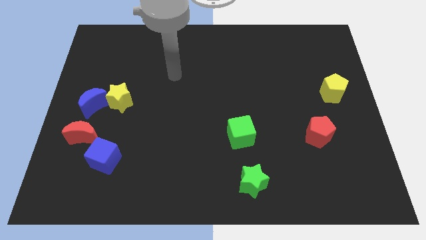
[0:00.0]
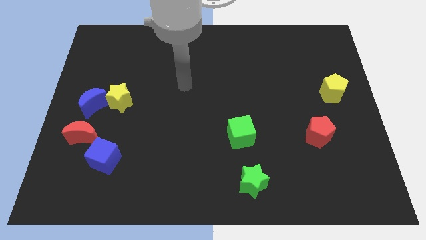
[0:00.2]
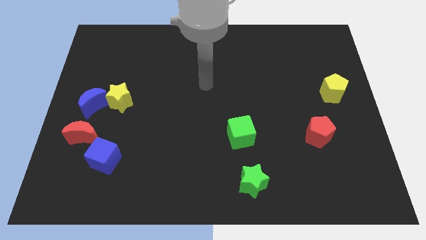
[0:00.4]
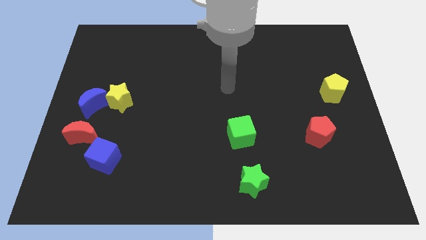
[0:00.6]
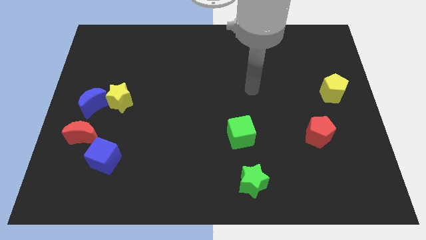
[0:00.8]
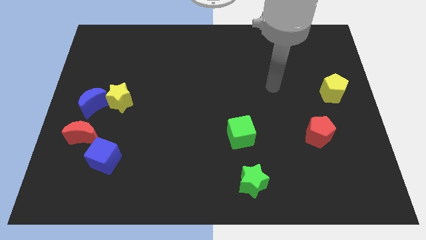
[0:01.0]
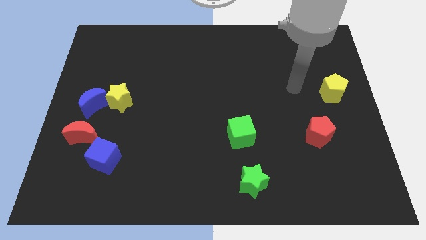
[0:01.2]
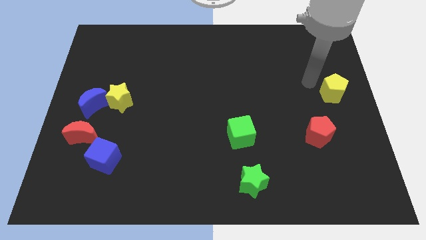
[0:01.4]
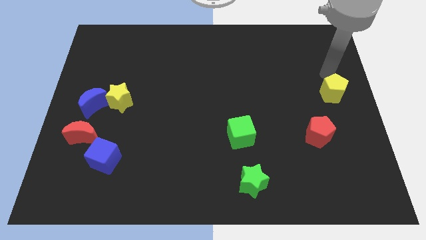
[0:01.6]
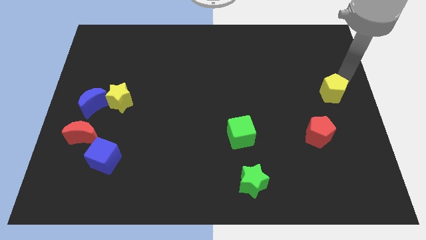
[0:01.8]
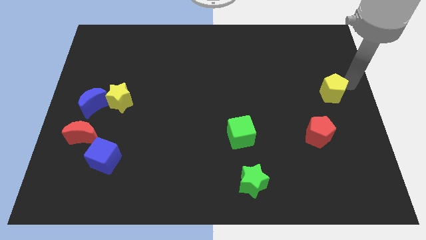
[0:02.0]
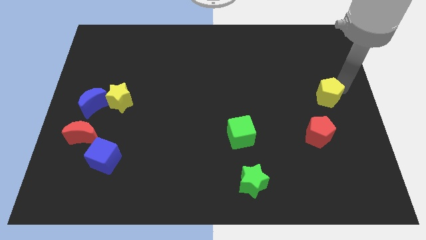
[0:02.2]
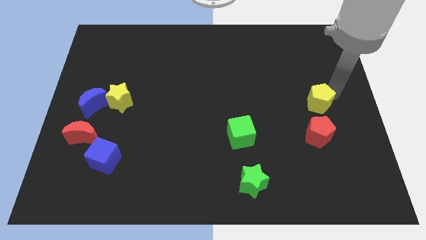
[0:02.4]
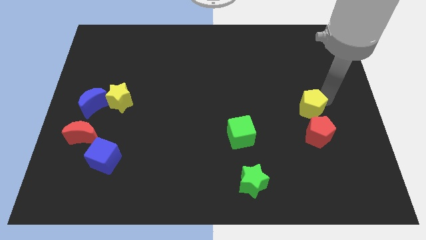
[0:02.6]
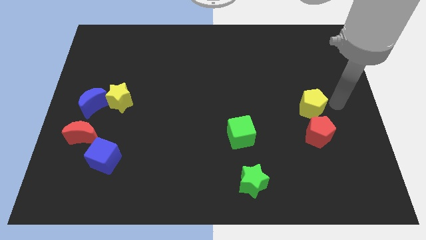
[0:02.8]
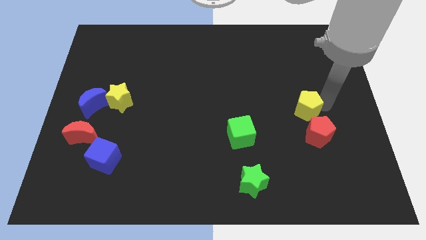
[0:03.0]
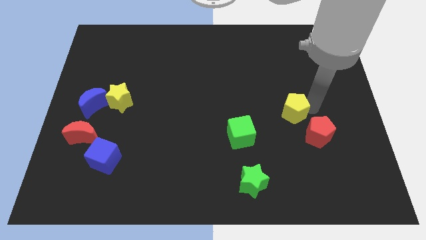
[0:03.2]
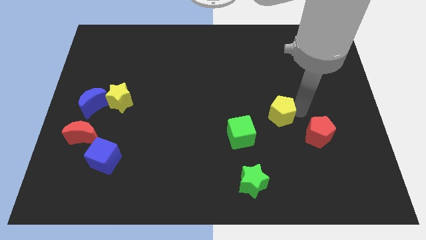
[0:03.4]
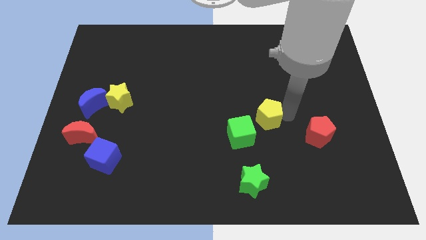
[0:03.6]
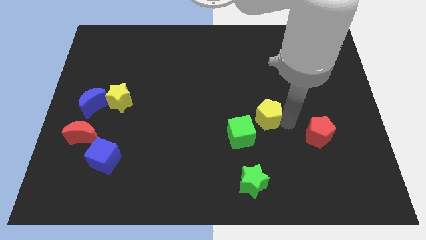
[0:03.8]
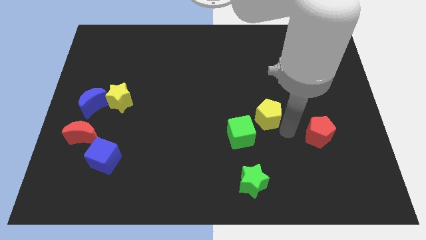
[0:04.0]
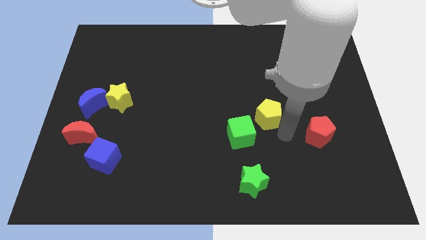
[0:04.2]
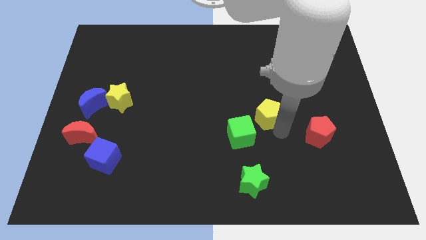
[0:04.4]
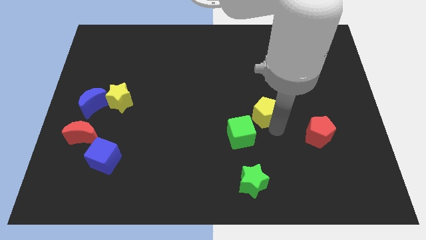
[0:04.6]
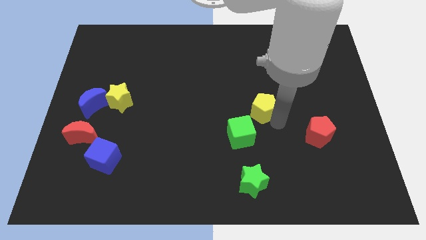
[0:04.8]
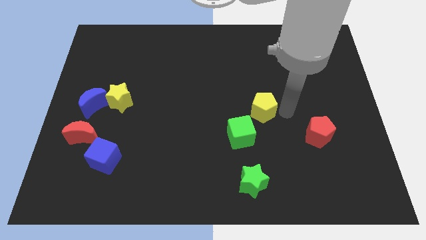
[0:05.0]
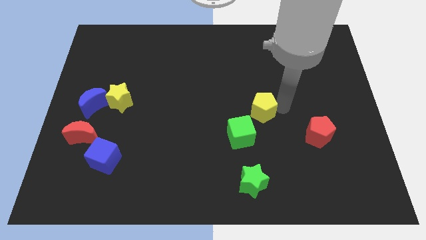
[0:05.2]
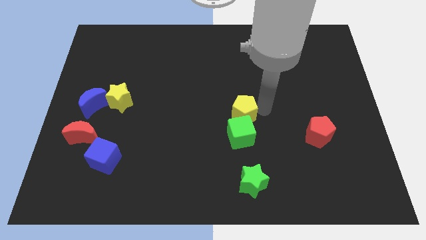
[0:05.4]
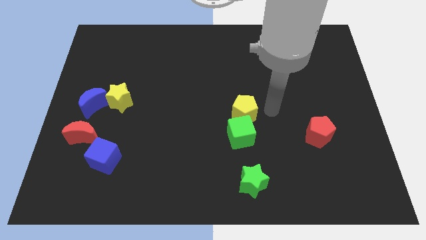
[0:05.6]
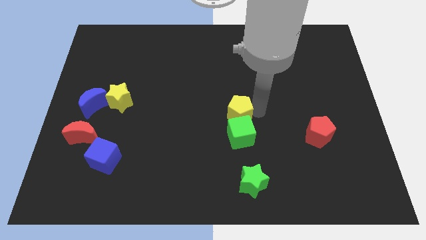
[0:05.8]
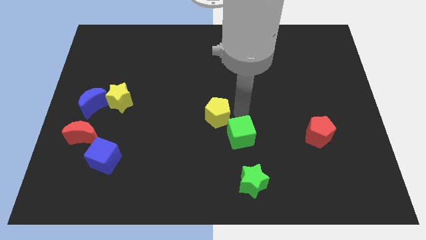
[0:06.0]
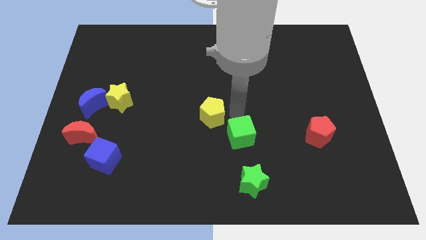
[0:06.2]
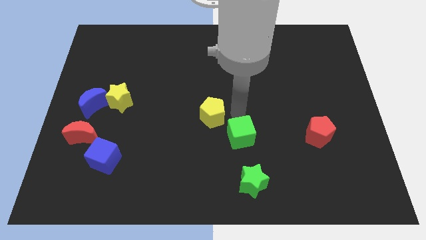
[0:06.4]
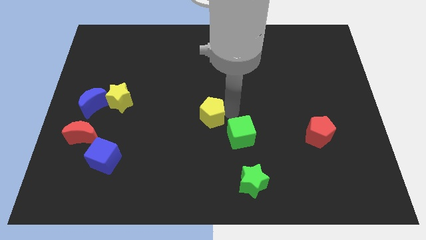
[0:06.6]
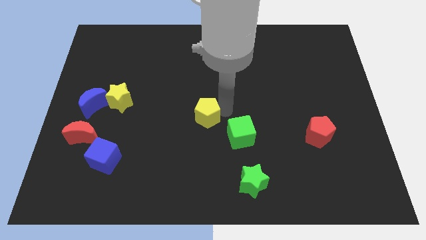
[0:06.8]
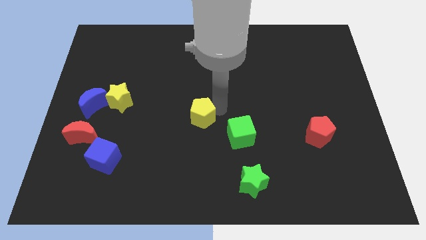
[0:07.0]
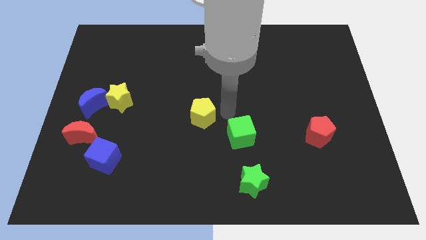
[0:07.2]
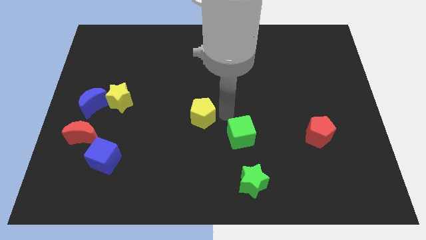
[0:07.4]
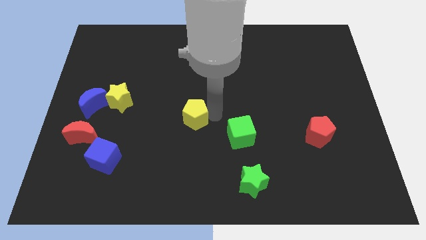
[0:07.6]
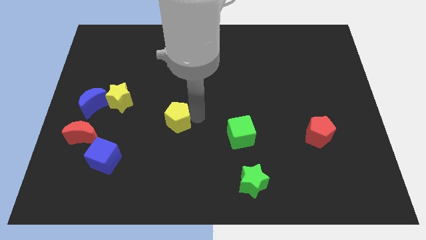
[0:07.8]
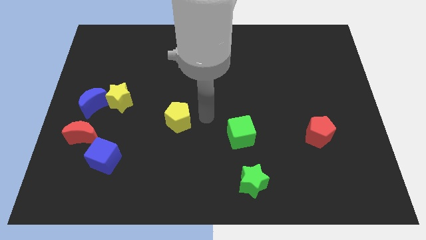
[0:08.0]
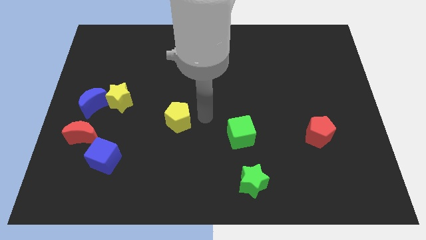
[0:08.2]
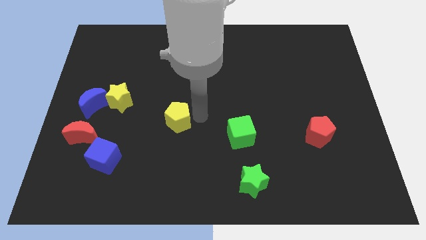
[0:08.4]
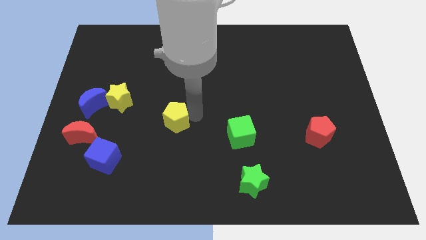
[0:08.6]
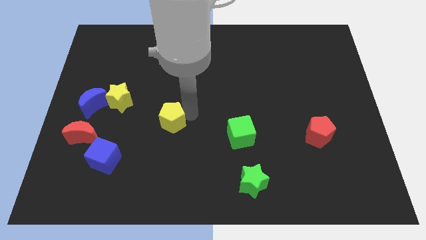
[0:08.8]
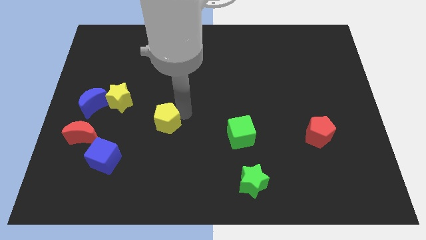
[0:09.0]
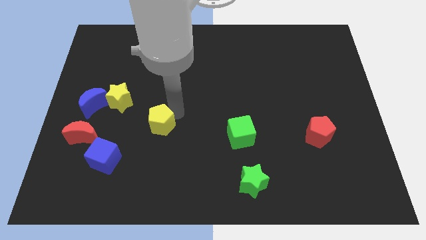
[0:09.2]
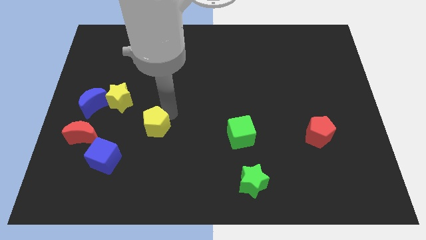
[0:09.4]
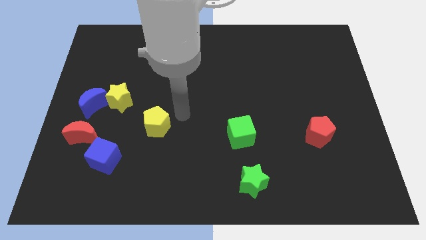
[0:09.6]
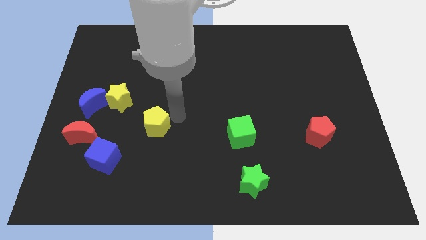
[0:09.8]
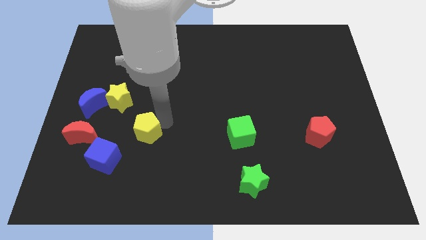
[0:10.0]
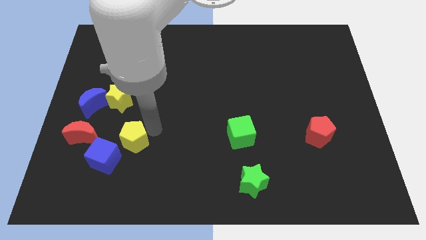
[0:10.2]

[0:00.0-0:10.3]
move the yellow pentagon to the bottom of the yellow star

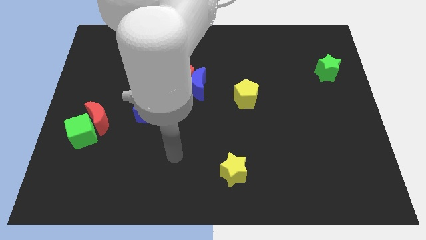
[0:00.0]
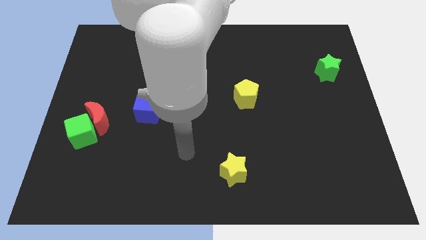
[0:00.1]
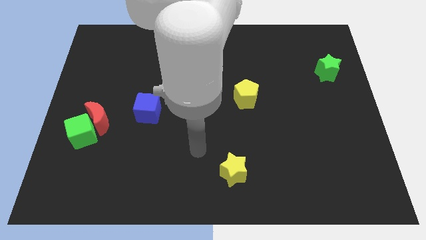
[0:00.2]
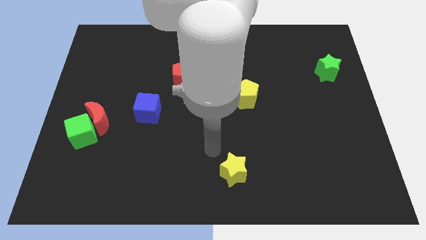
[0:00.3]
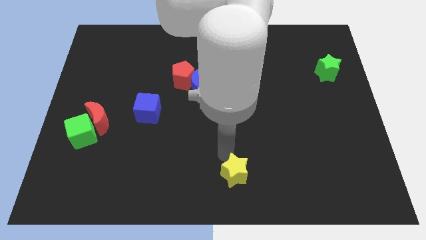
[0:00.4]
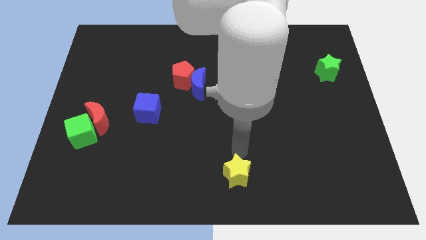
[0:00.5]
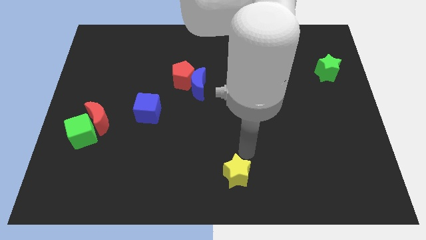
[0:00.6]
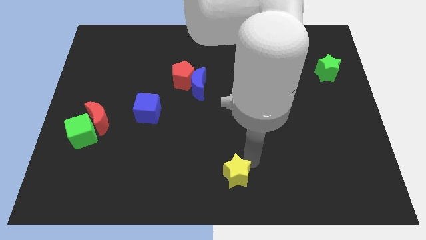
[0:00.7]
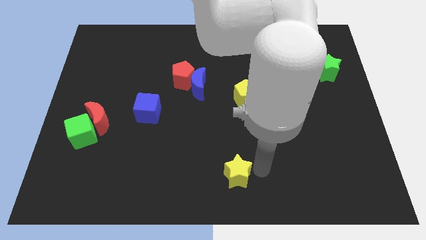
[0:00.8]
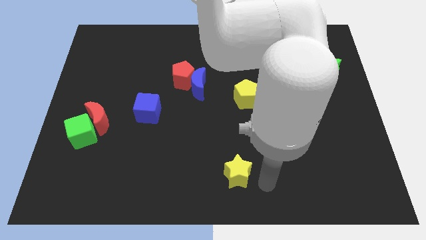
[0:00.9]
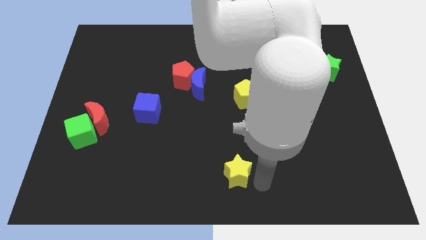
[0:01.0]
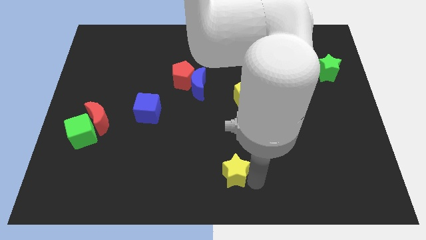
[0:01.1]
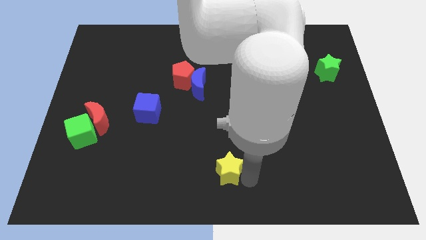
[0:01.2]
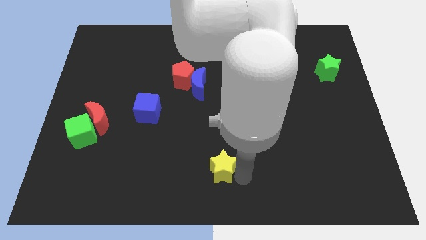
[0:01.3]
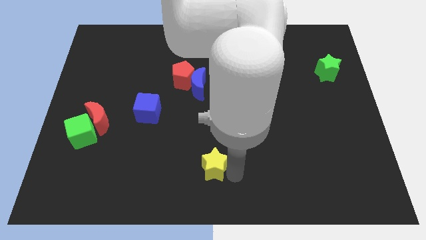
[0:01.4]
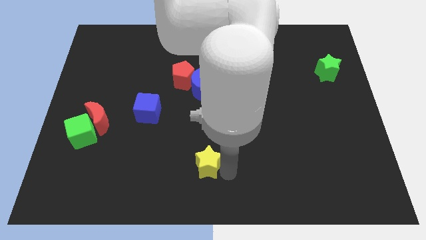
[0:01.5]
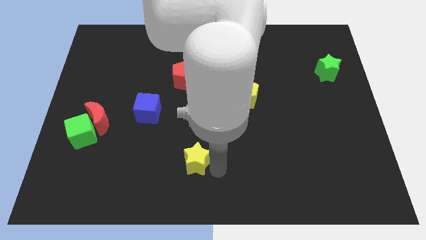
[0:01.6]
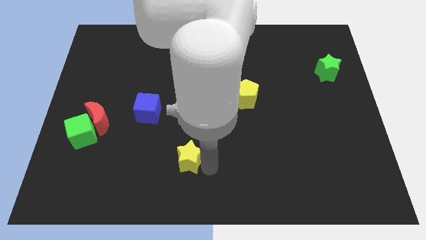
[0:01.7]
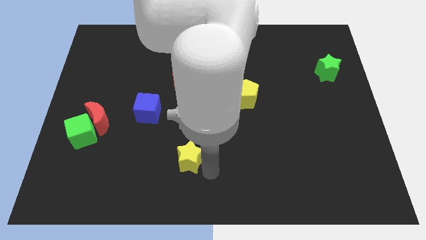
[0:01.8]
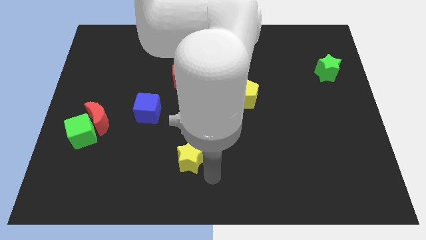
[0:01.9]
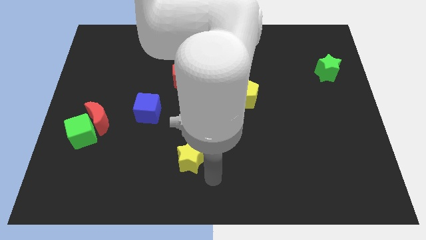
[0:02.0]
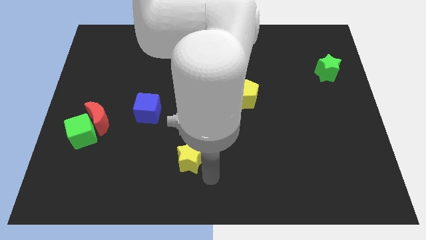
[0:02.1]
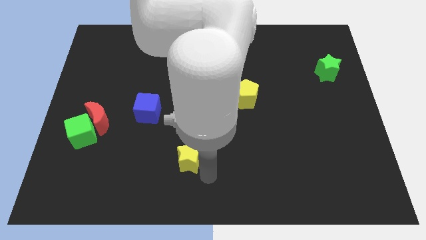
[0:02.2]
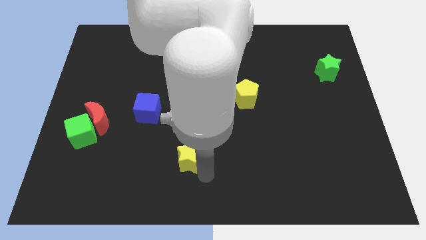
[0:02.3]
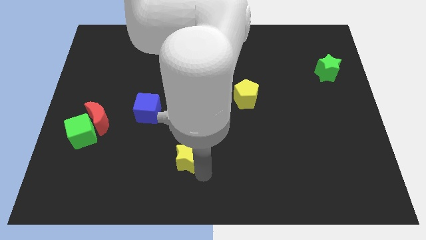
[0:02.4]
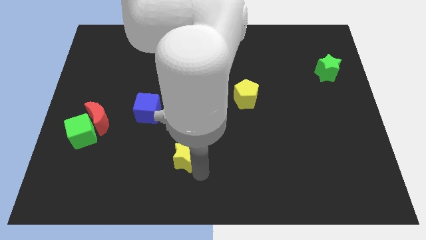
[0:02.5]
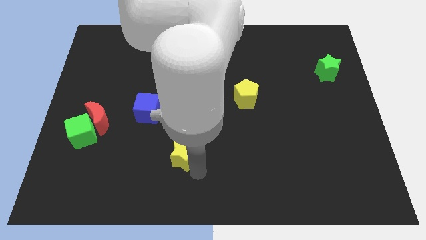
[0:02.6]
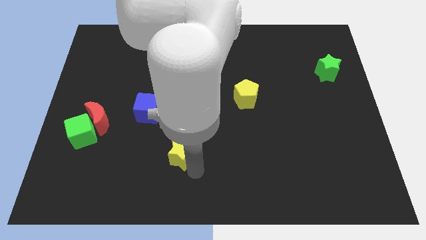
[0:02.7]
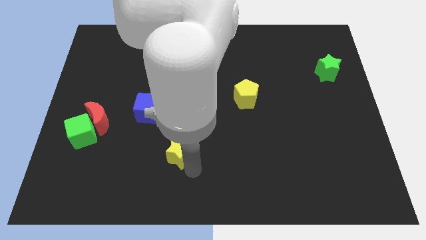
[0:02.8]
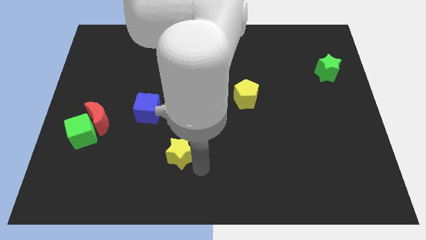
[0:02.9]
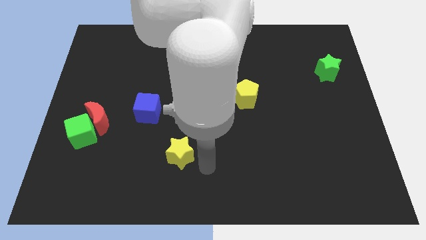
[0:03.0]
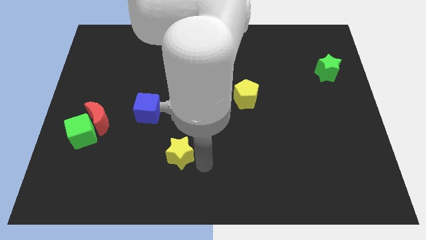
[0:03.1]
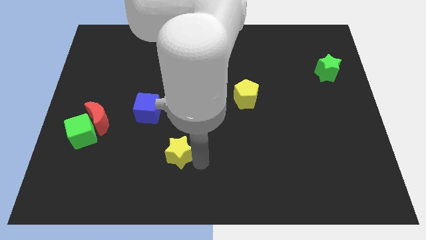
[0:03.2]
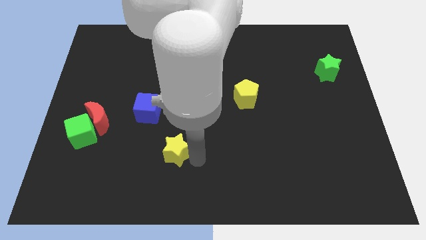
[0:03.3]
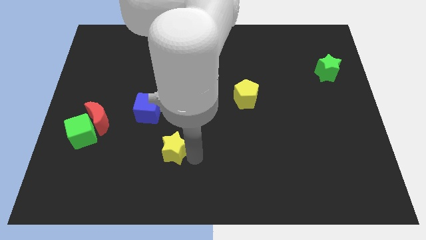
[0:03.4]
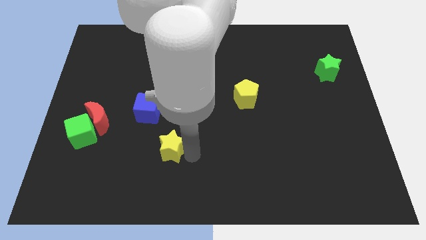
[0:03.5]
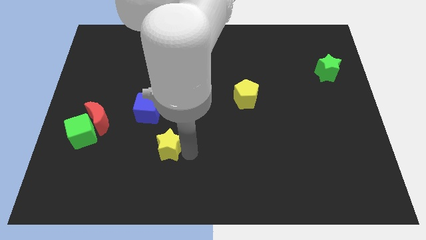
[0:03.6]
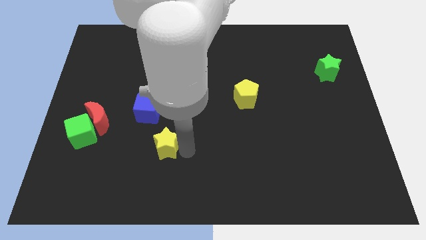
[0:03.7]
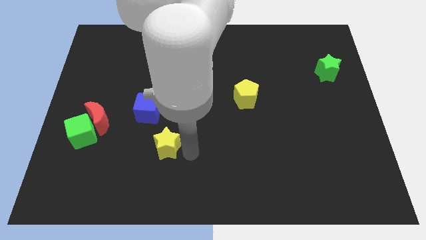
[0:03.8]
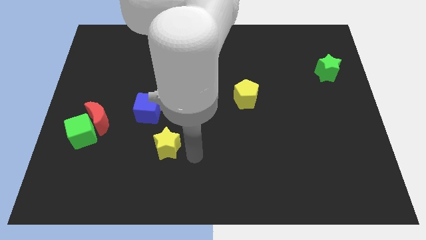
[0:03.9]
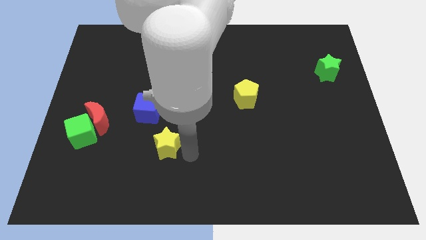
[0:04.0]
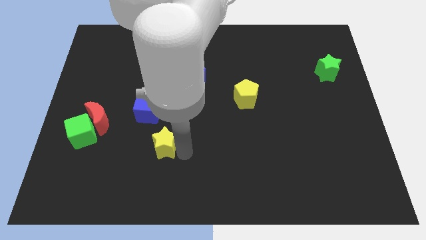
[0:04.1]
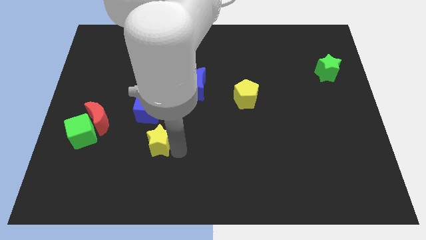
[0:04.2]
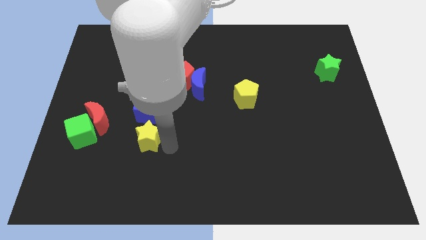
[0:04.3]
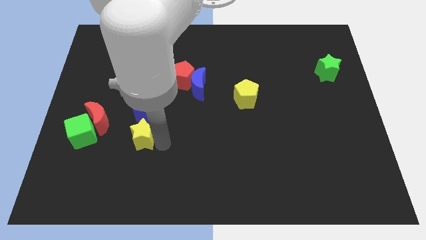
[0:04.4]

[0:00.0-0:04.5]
put the yellow star to the bottom right side of the red moon
